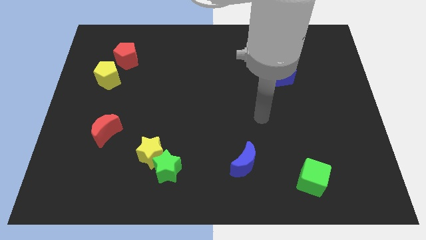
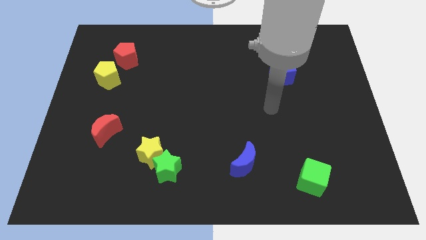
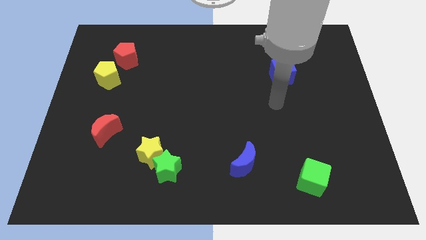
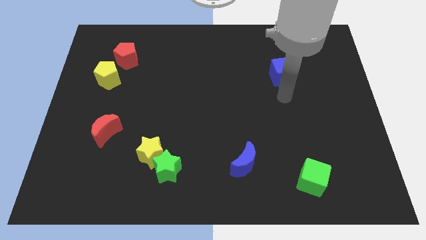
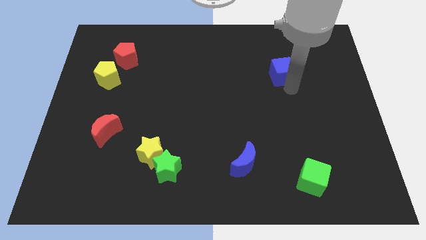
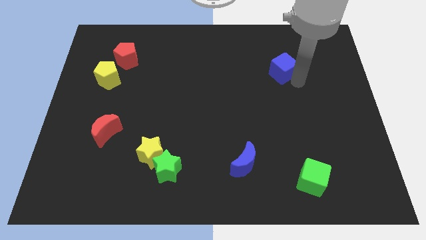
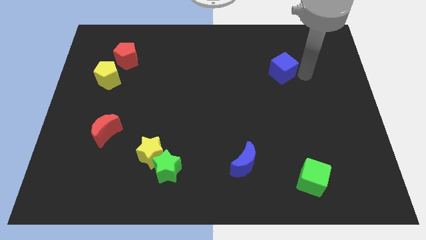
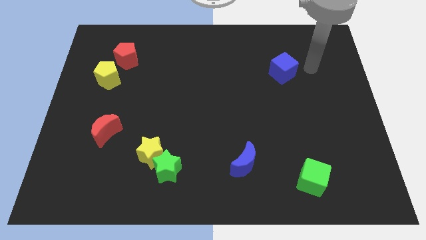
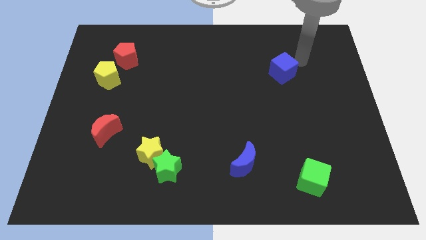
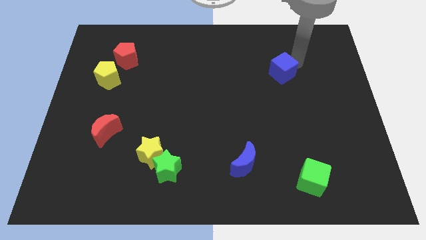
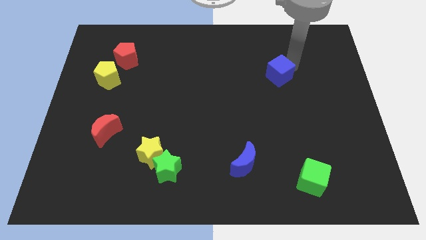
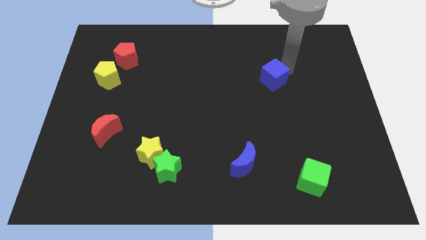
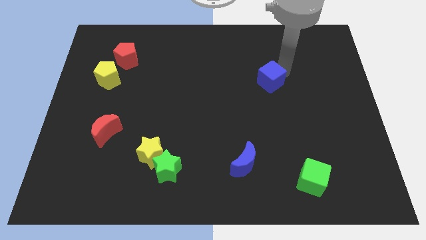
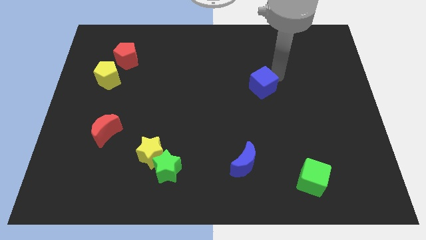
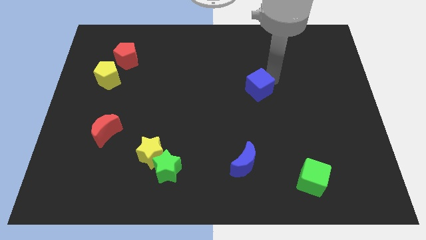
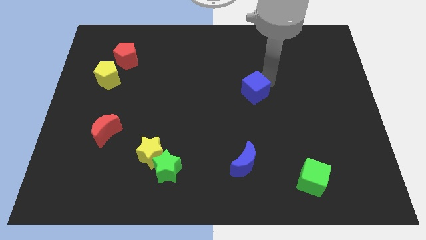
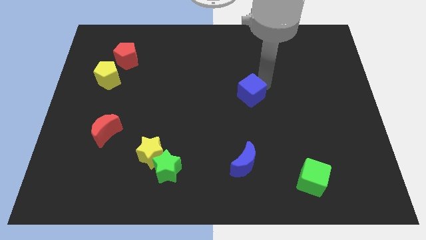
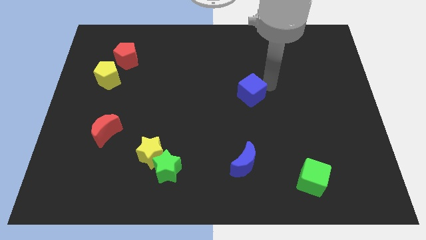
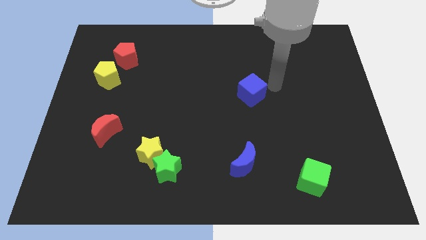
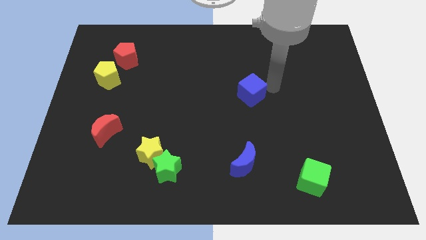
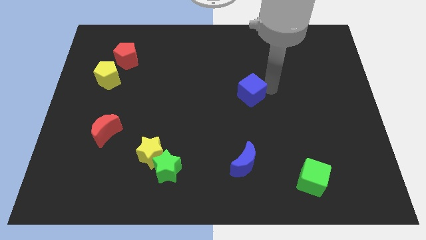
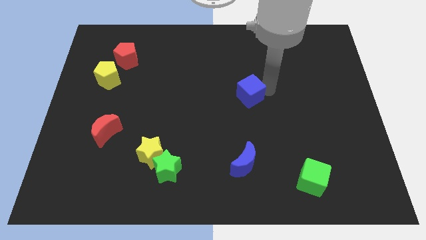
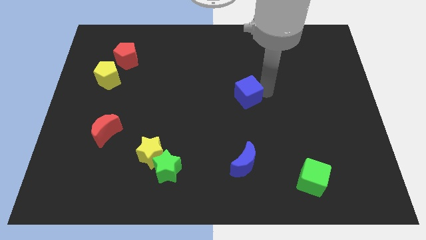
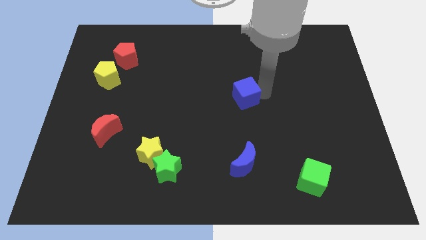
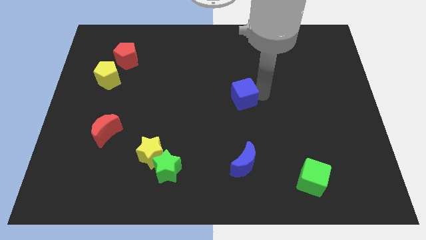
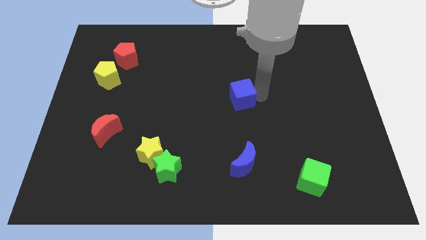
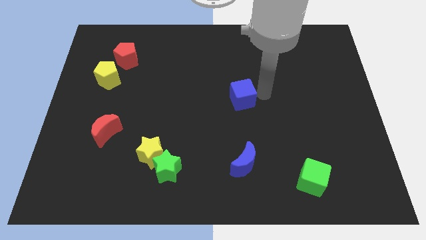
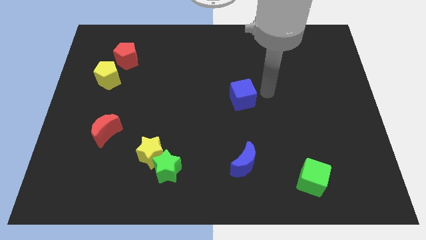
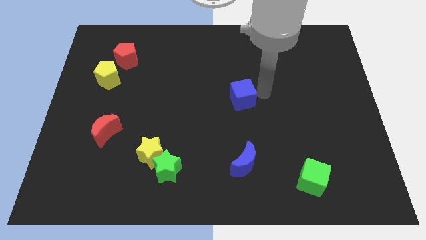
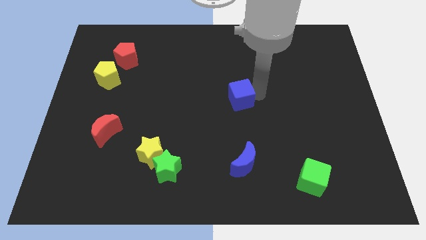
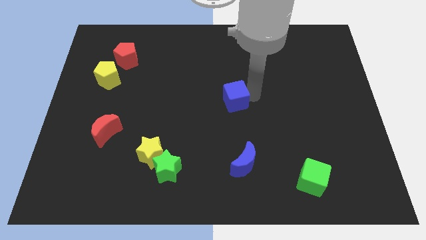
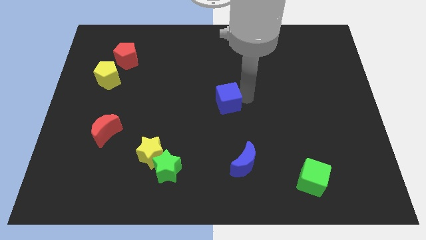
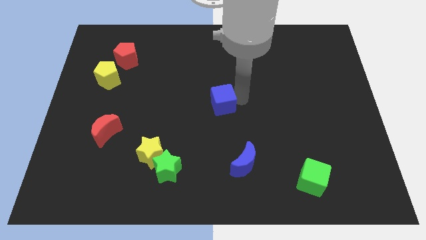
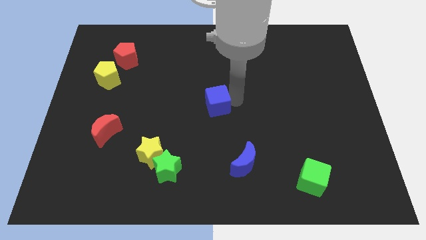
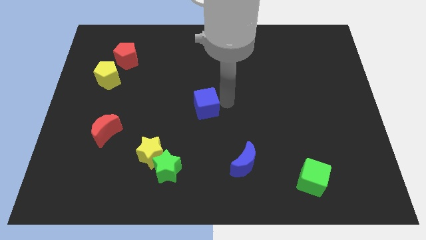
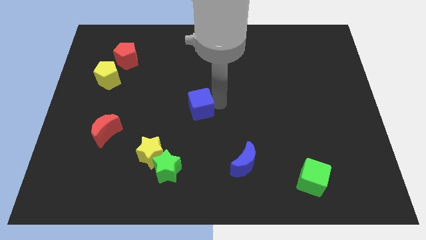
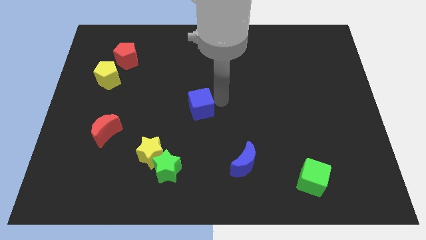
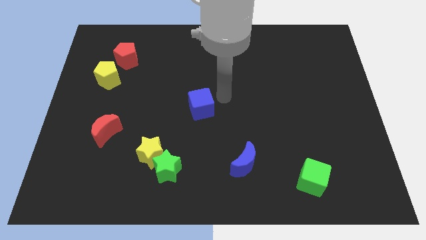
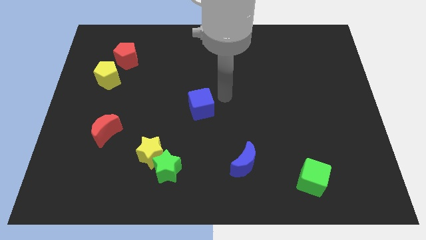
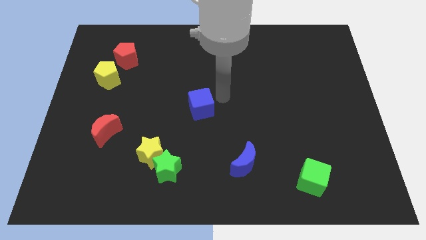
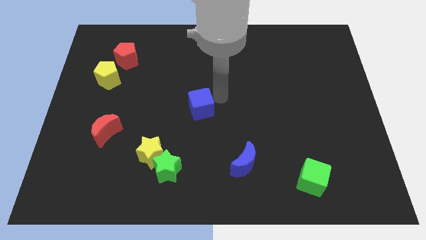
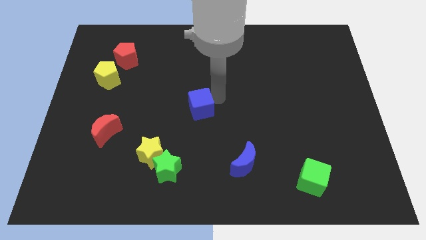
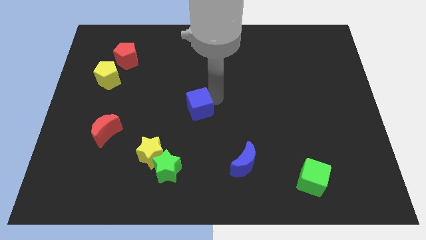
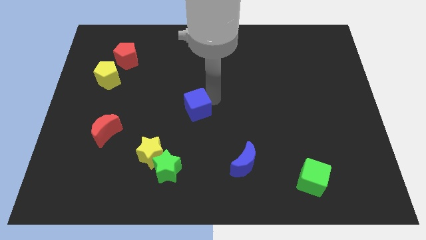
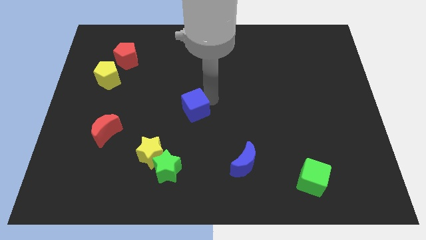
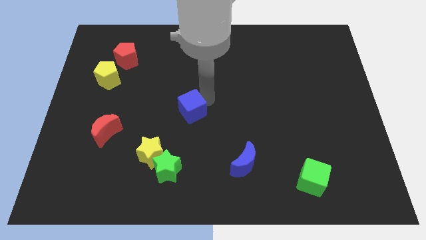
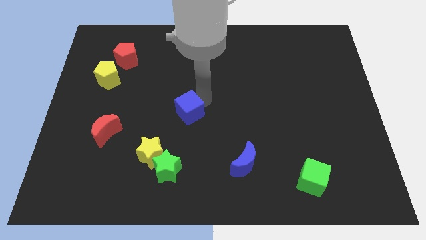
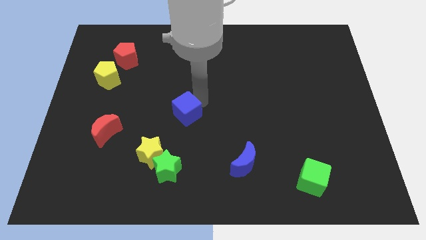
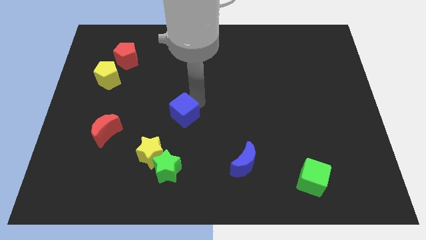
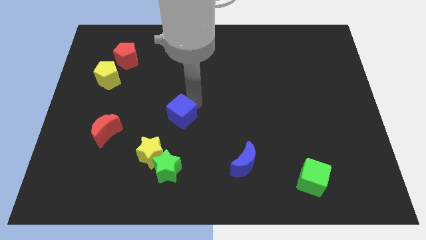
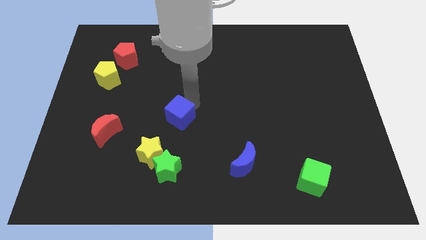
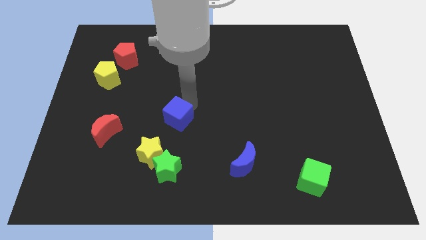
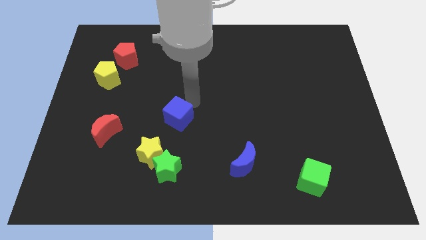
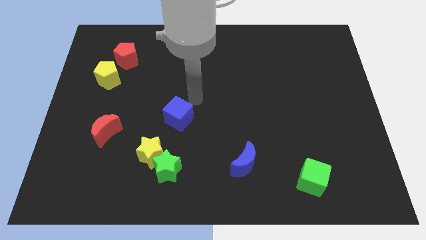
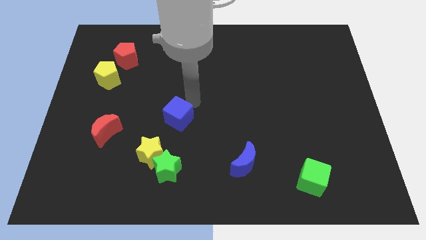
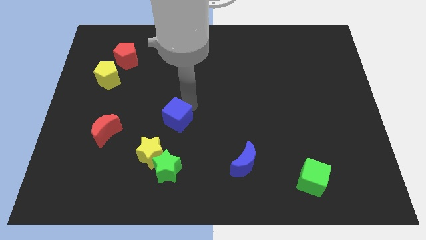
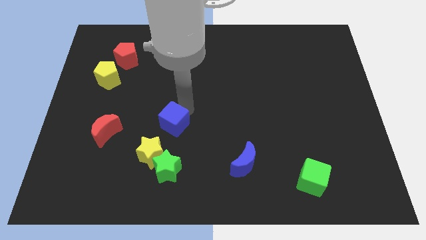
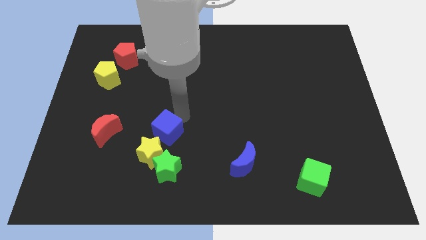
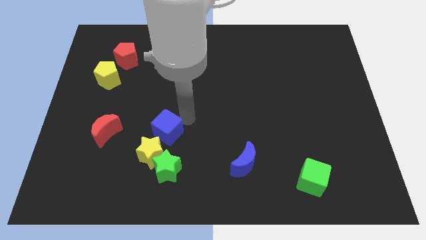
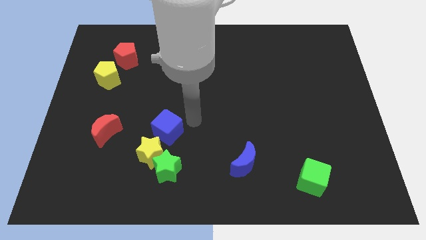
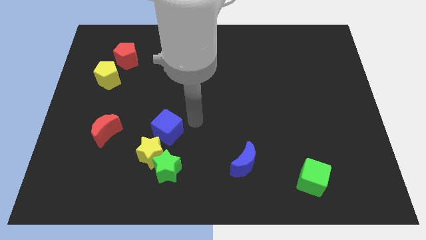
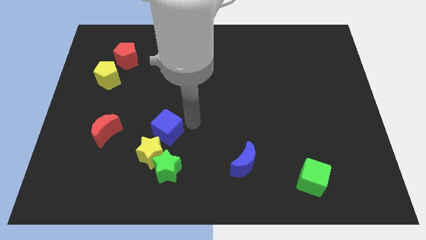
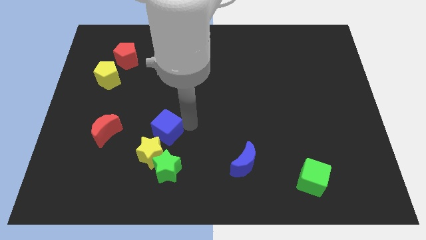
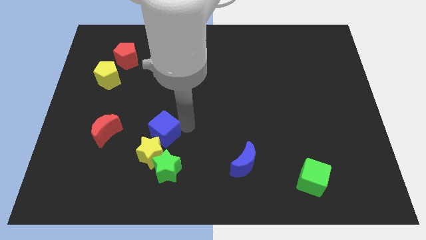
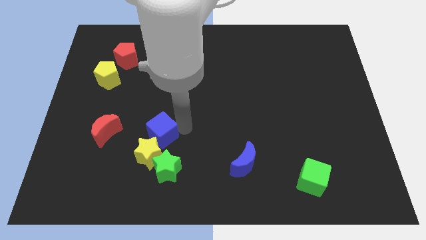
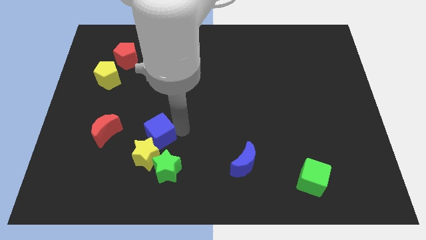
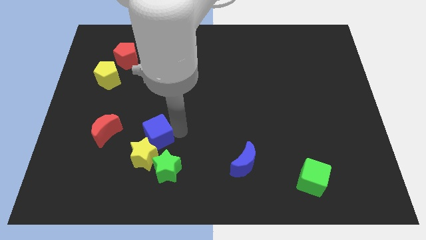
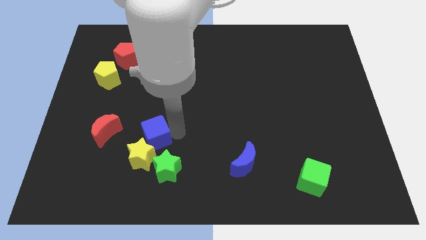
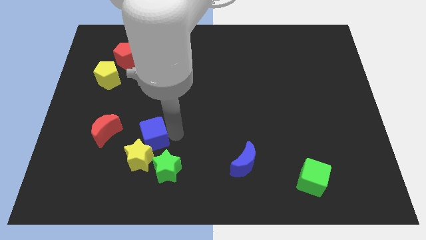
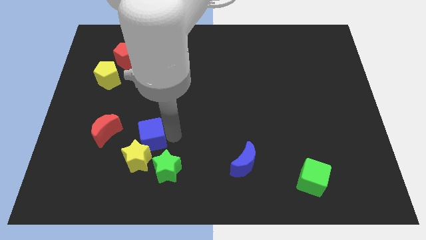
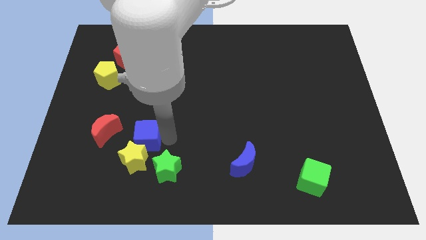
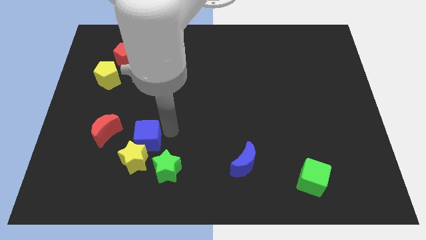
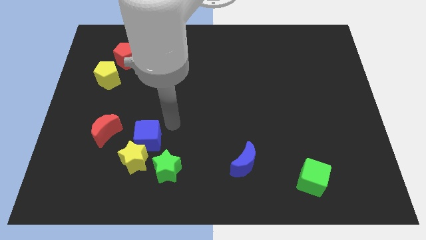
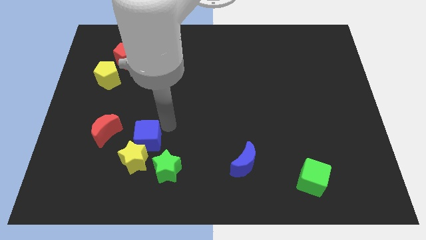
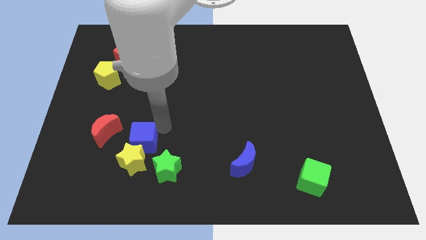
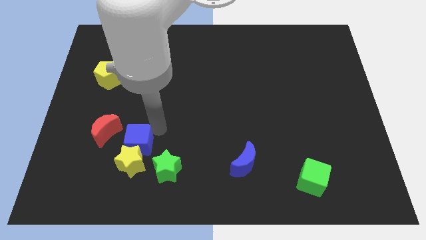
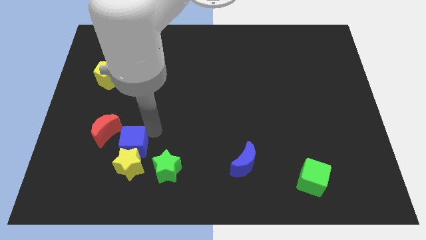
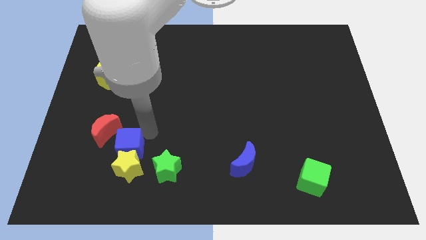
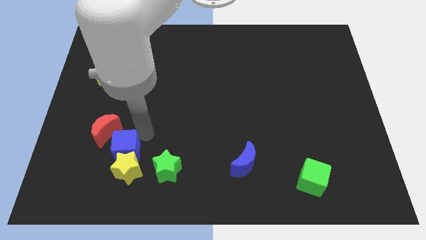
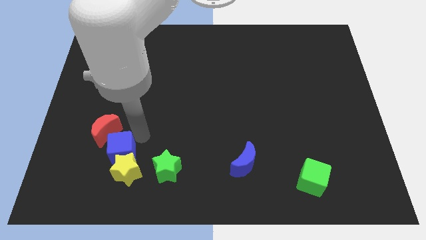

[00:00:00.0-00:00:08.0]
slide the blue cube to the bottom of the red moon
